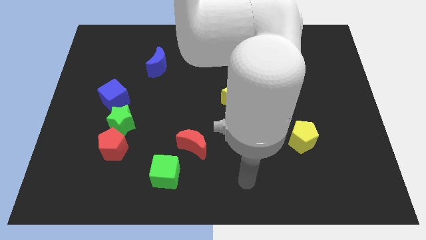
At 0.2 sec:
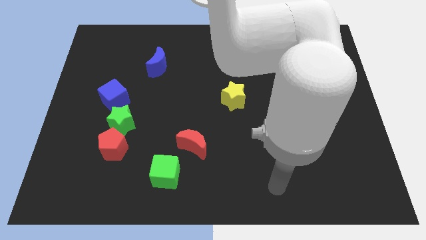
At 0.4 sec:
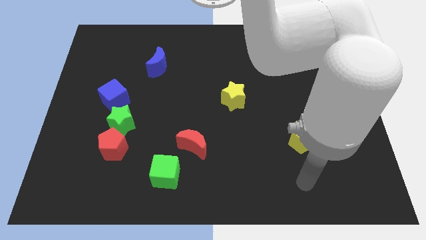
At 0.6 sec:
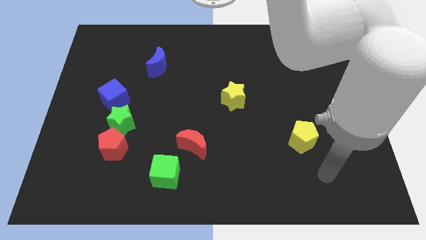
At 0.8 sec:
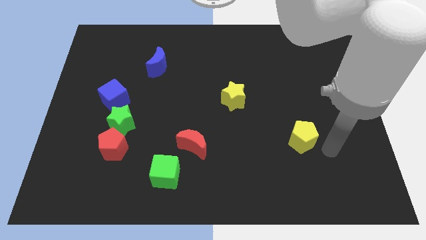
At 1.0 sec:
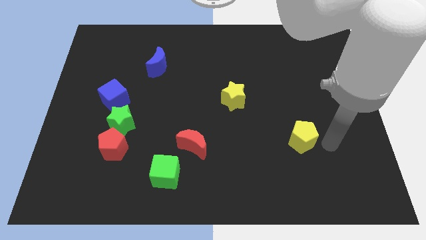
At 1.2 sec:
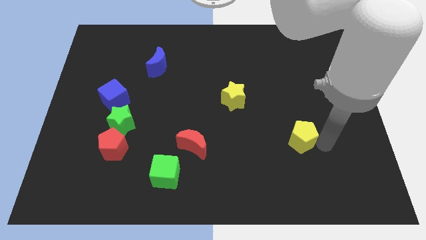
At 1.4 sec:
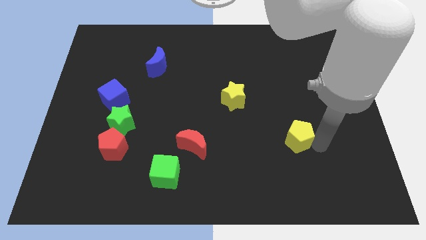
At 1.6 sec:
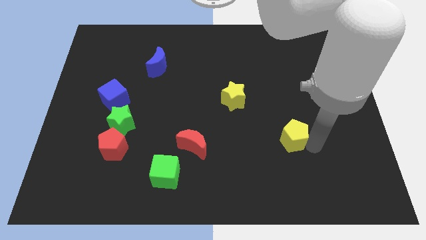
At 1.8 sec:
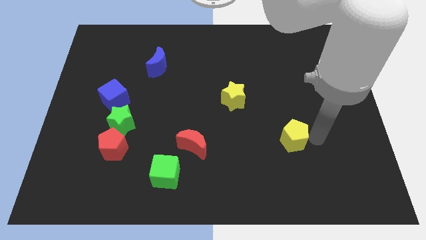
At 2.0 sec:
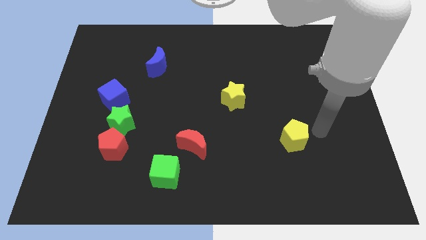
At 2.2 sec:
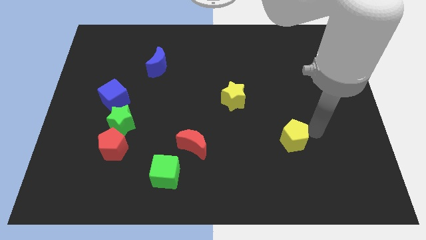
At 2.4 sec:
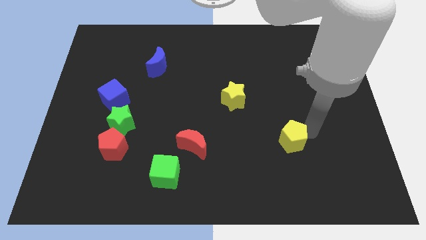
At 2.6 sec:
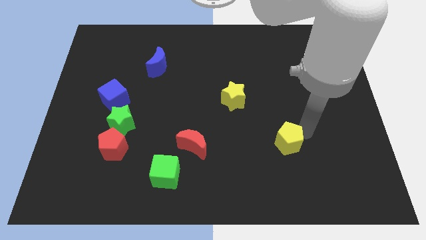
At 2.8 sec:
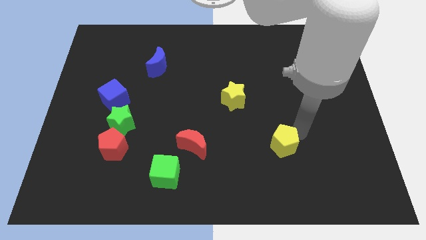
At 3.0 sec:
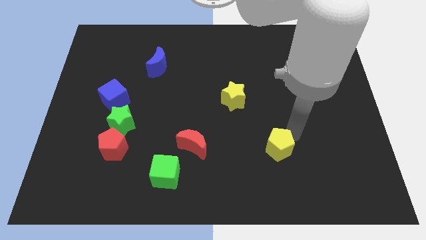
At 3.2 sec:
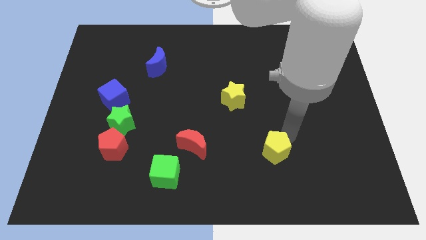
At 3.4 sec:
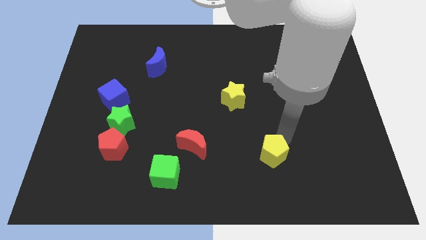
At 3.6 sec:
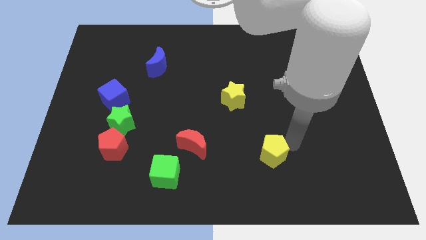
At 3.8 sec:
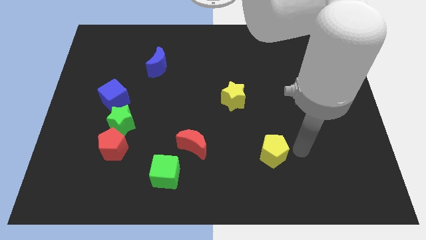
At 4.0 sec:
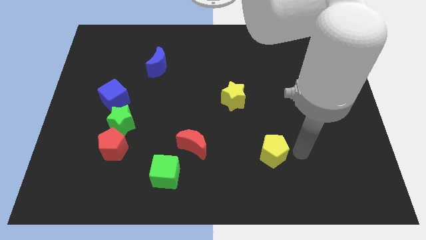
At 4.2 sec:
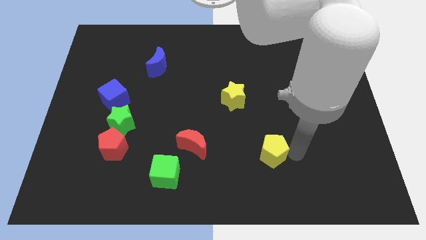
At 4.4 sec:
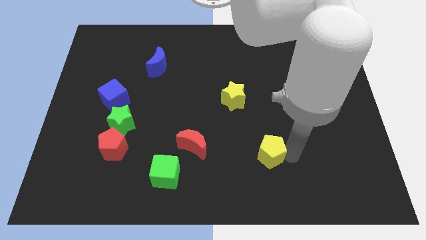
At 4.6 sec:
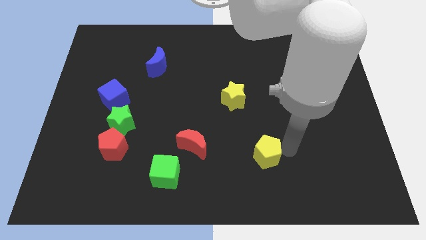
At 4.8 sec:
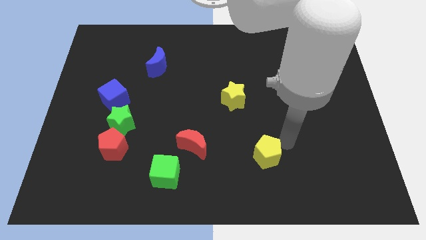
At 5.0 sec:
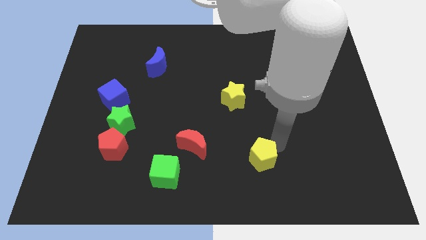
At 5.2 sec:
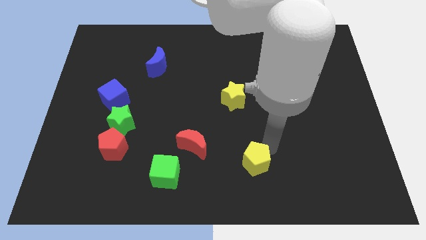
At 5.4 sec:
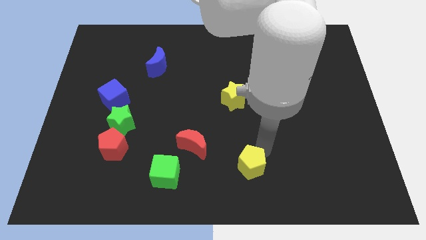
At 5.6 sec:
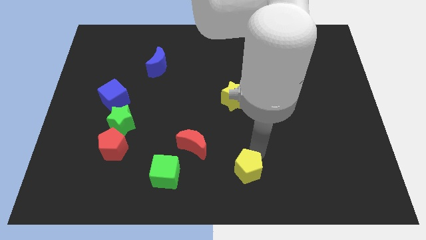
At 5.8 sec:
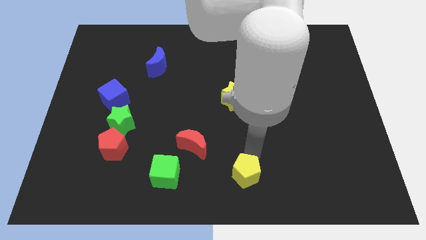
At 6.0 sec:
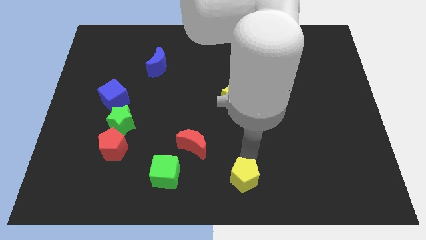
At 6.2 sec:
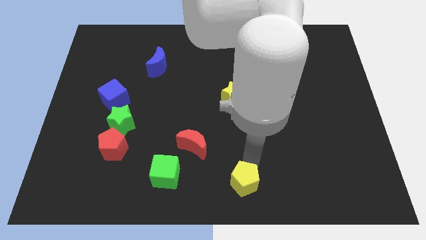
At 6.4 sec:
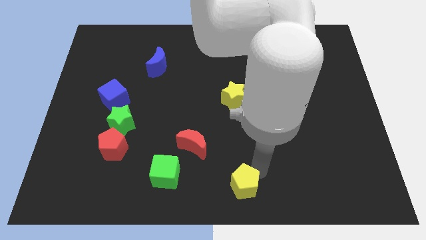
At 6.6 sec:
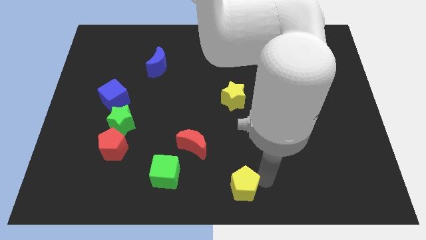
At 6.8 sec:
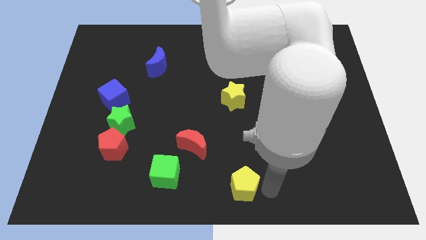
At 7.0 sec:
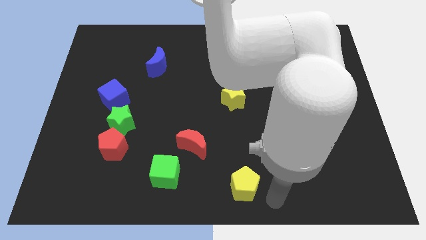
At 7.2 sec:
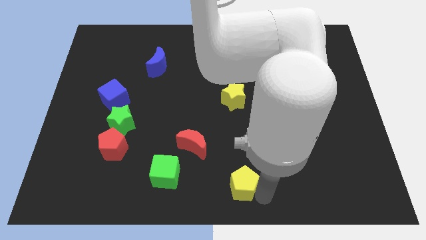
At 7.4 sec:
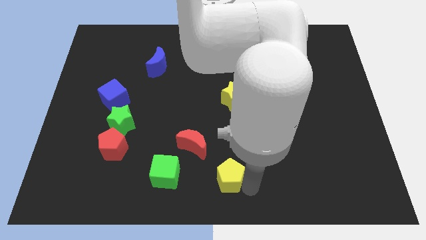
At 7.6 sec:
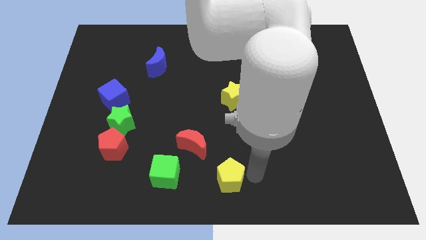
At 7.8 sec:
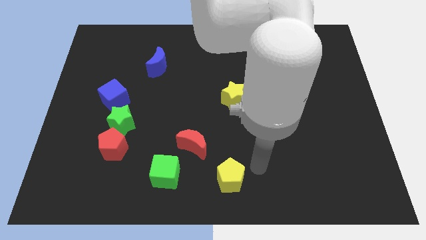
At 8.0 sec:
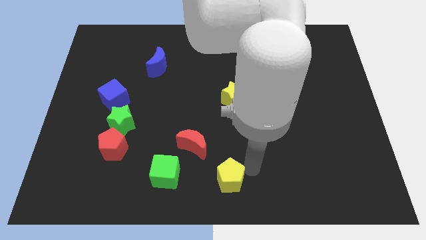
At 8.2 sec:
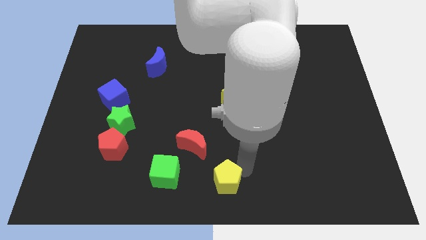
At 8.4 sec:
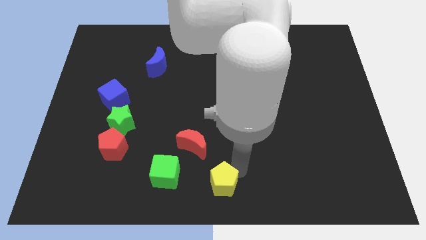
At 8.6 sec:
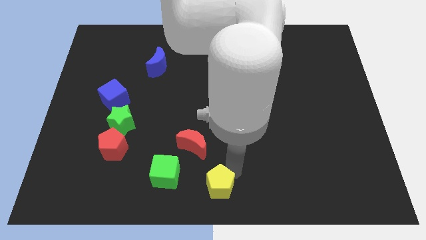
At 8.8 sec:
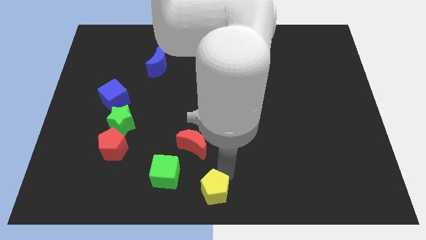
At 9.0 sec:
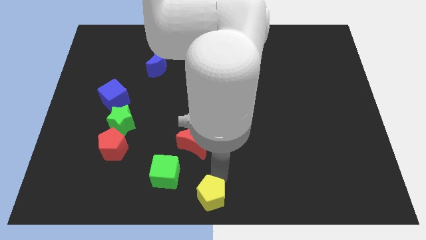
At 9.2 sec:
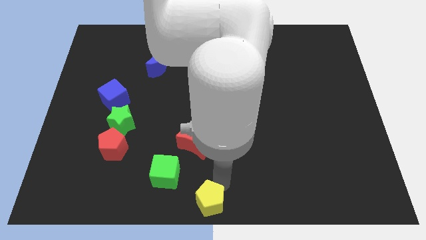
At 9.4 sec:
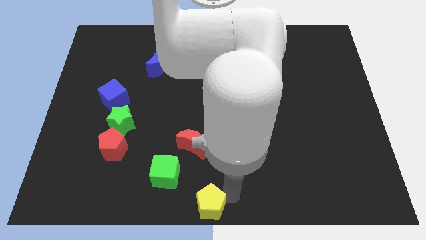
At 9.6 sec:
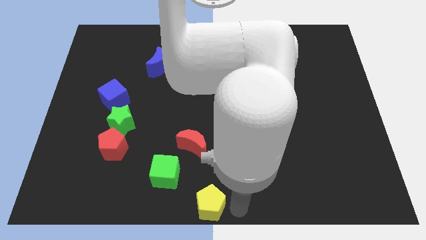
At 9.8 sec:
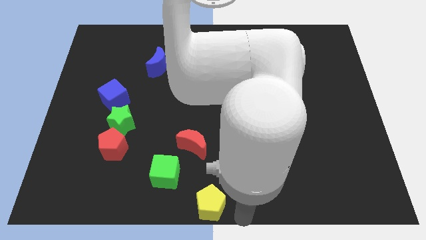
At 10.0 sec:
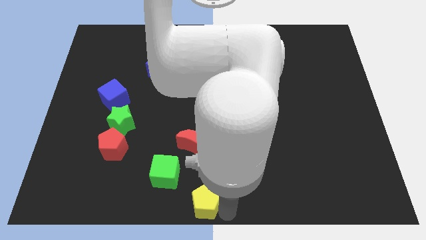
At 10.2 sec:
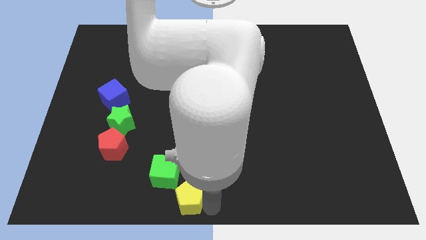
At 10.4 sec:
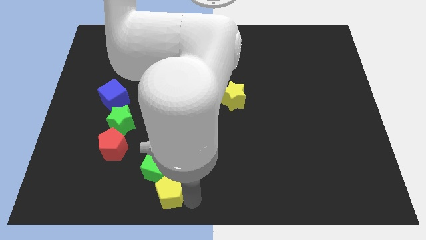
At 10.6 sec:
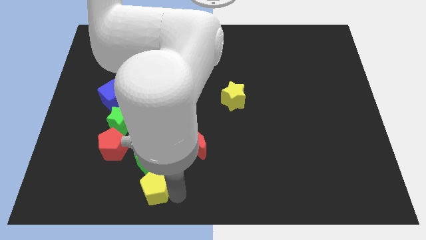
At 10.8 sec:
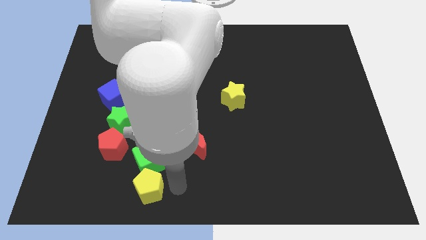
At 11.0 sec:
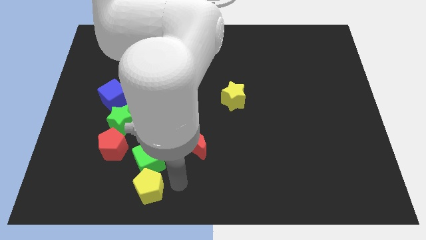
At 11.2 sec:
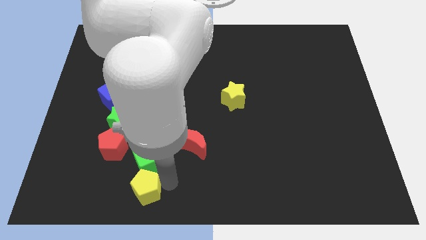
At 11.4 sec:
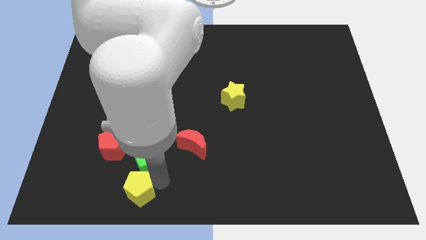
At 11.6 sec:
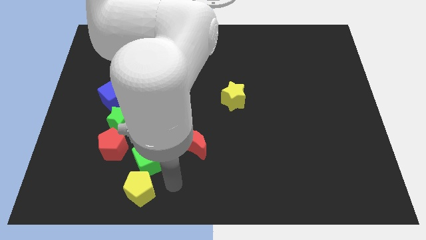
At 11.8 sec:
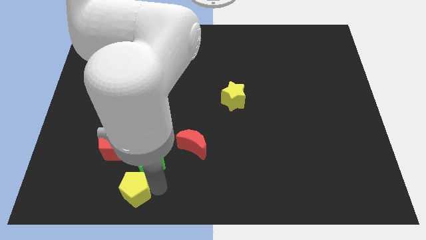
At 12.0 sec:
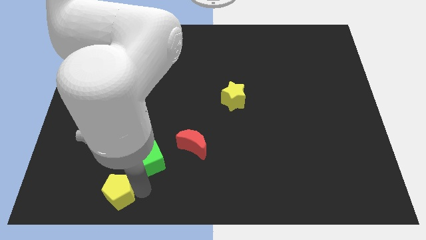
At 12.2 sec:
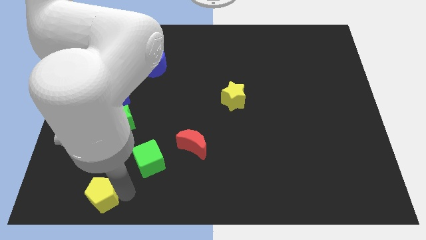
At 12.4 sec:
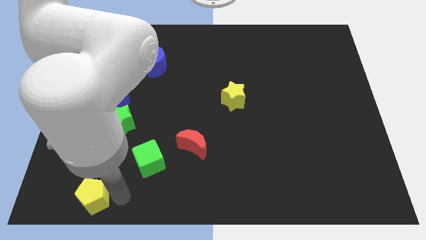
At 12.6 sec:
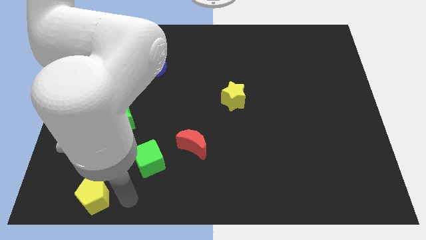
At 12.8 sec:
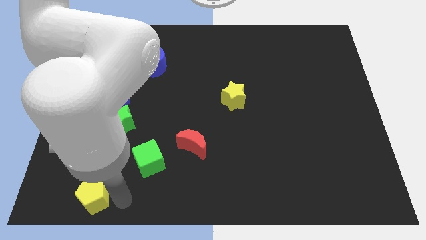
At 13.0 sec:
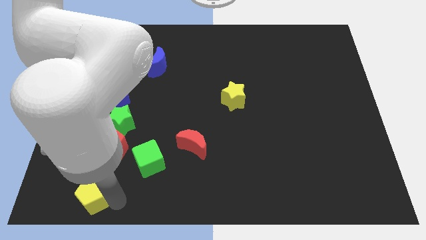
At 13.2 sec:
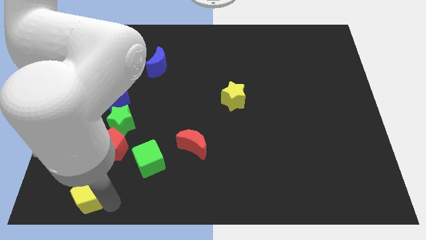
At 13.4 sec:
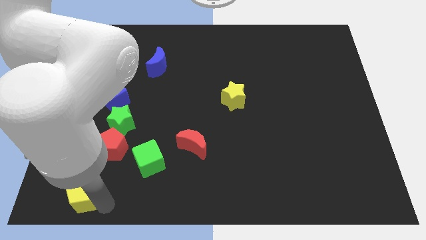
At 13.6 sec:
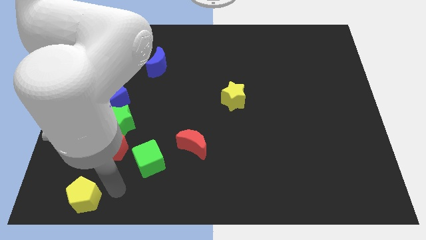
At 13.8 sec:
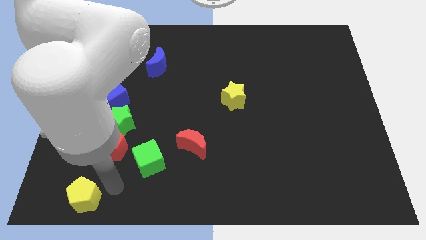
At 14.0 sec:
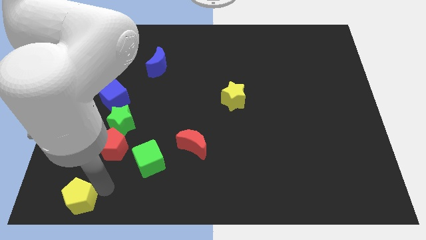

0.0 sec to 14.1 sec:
push the yellow pentagon to the bottom left of the board

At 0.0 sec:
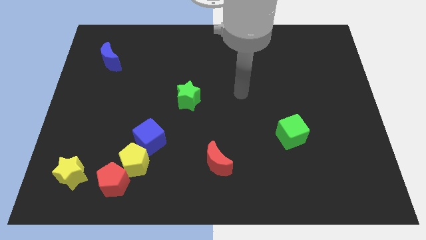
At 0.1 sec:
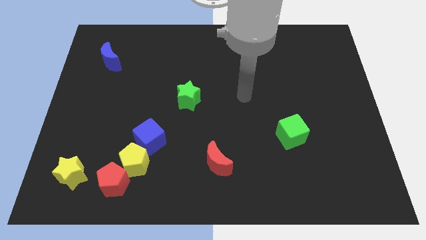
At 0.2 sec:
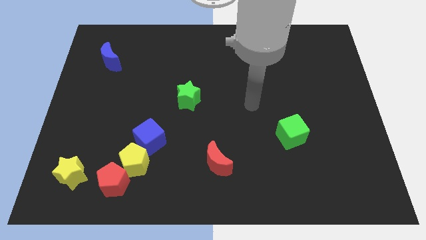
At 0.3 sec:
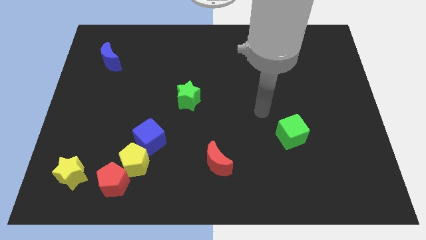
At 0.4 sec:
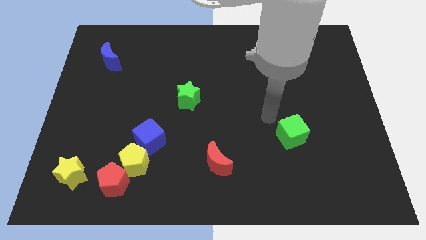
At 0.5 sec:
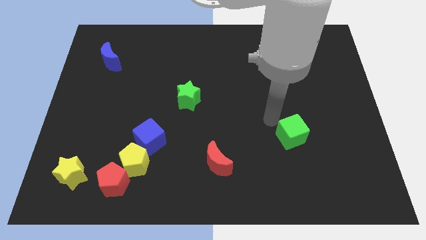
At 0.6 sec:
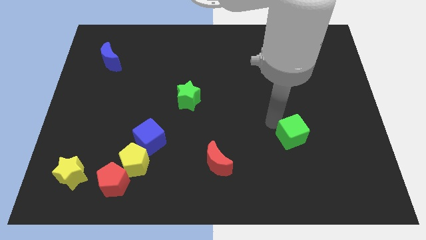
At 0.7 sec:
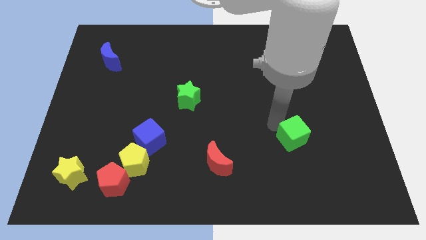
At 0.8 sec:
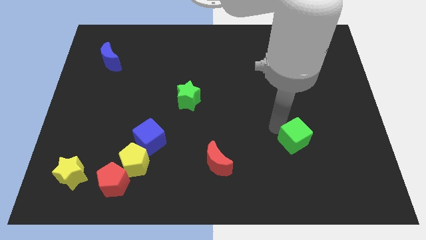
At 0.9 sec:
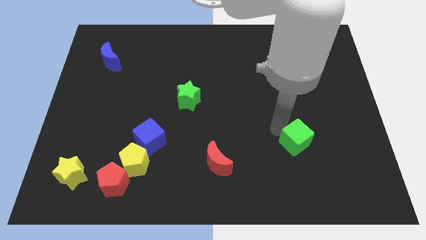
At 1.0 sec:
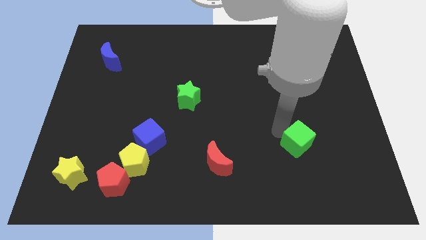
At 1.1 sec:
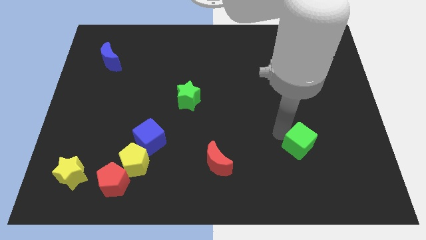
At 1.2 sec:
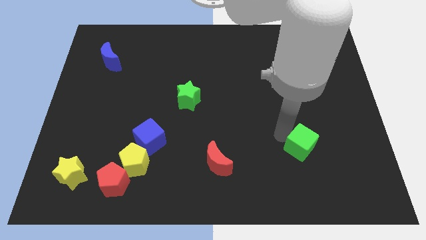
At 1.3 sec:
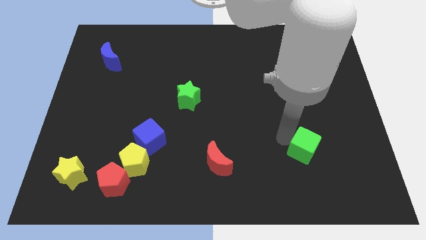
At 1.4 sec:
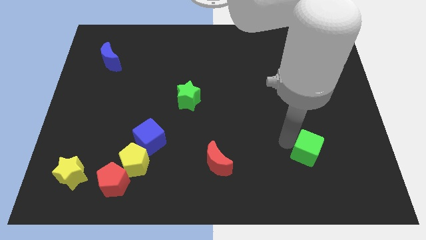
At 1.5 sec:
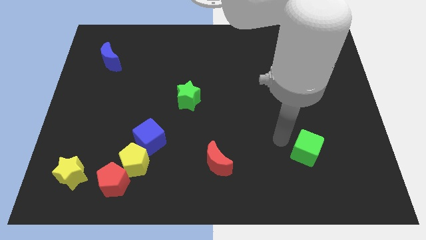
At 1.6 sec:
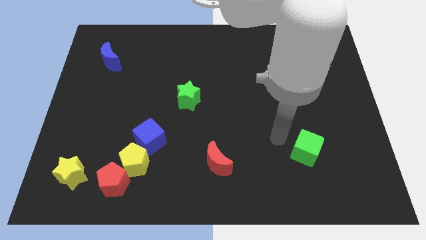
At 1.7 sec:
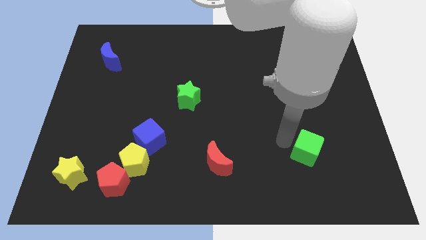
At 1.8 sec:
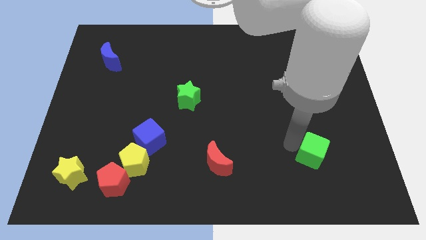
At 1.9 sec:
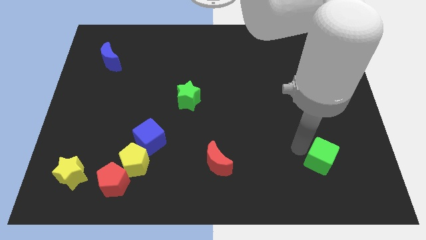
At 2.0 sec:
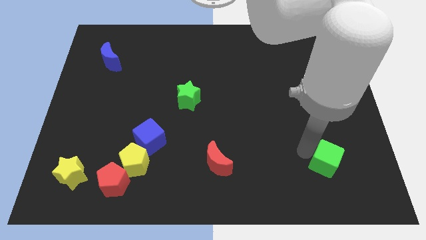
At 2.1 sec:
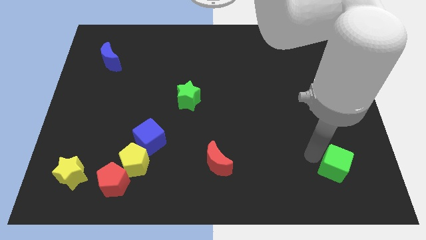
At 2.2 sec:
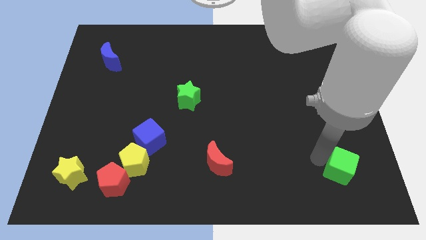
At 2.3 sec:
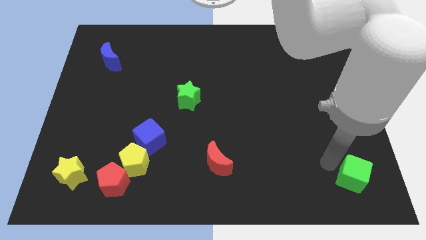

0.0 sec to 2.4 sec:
move the green cube to the bottom right of the board
